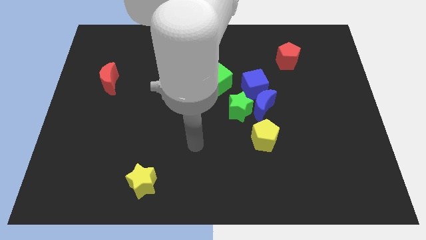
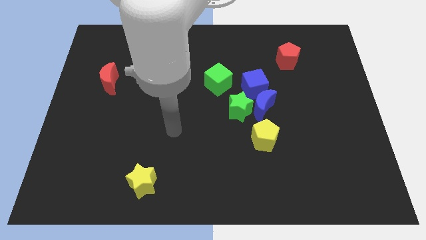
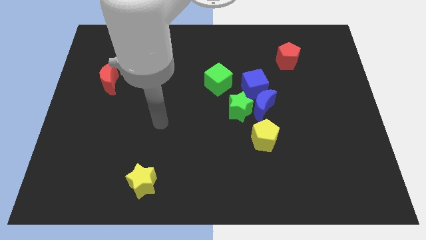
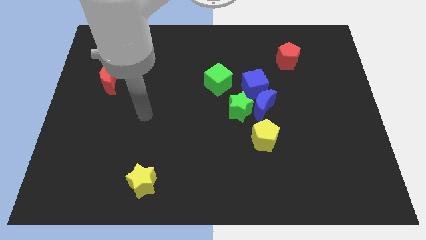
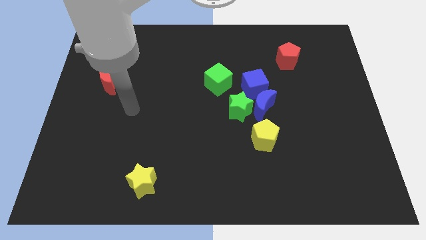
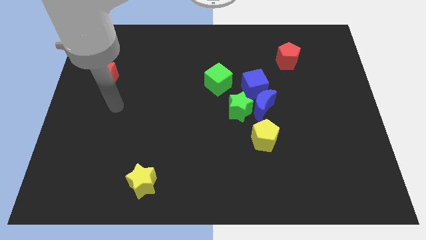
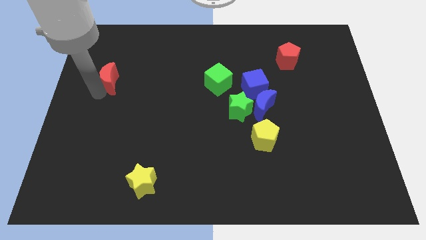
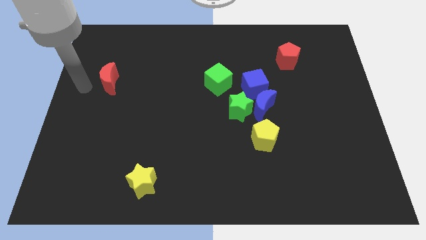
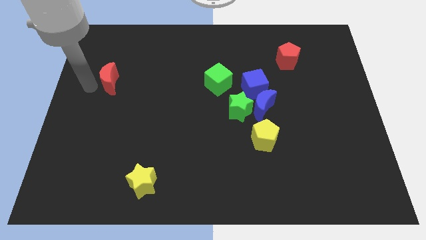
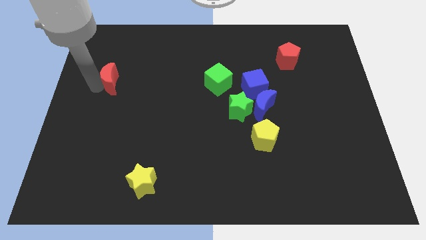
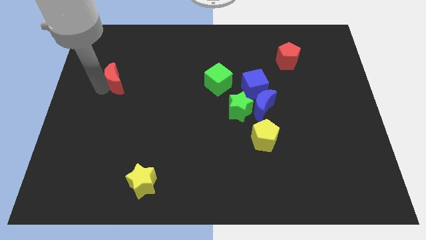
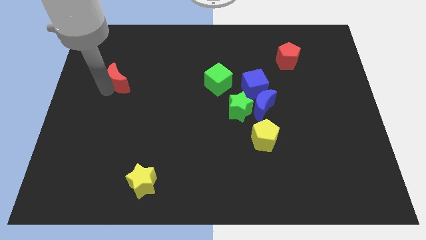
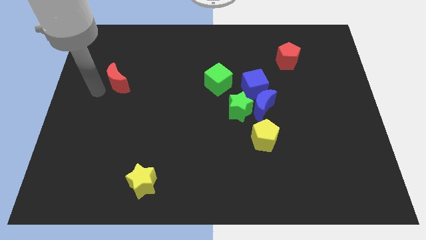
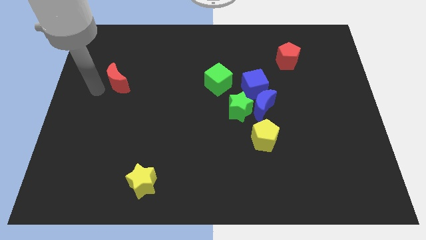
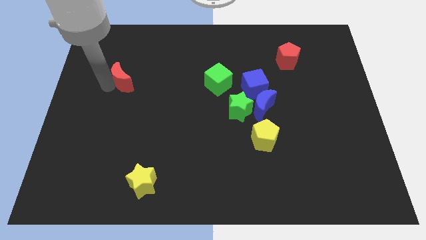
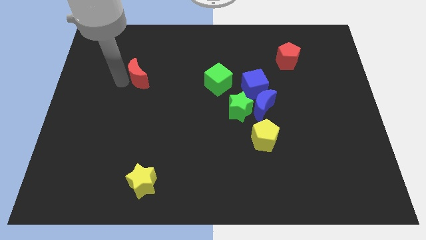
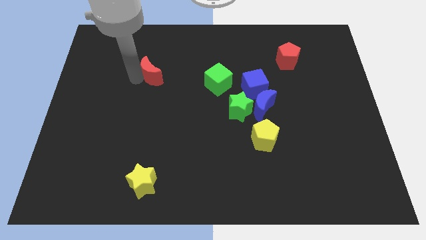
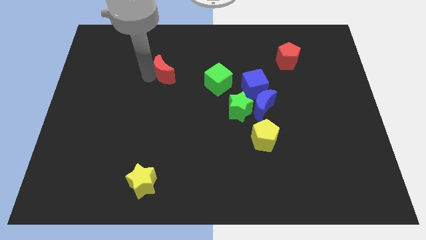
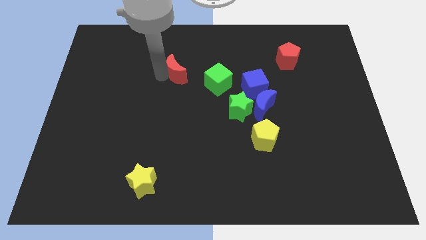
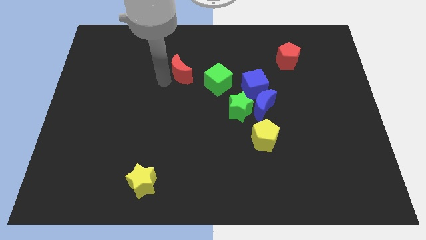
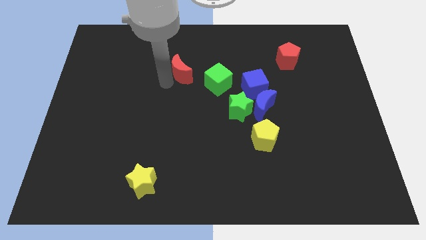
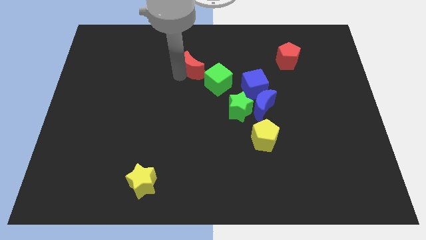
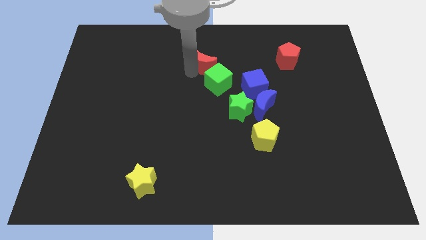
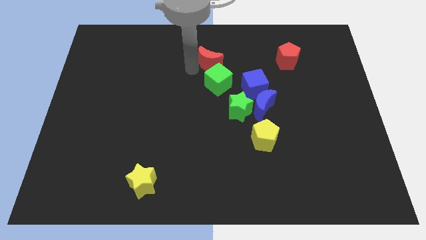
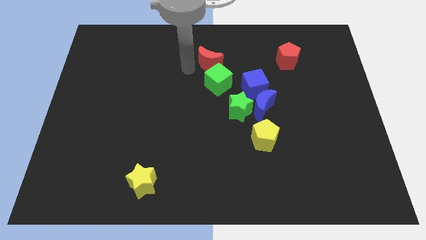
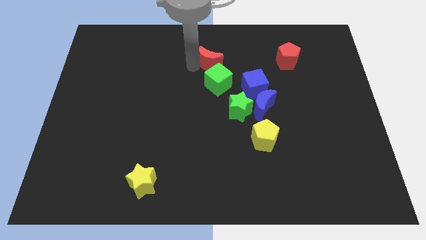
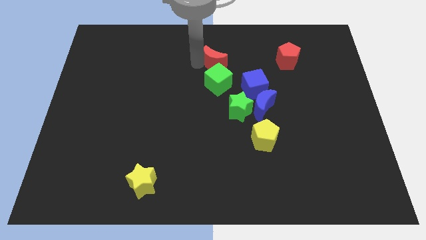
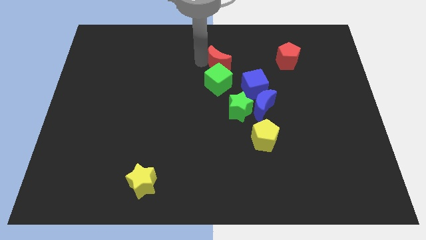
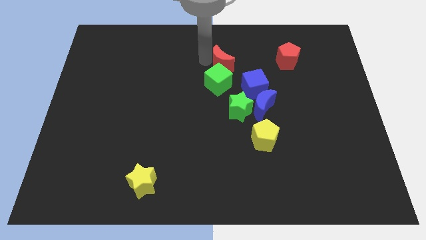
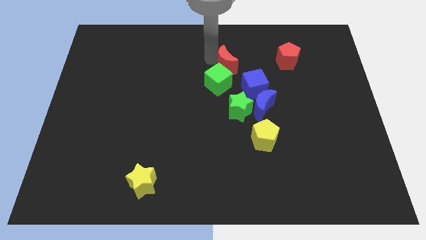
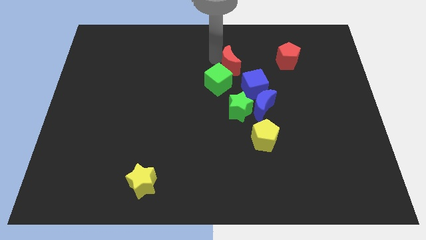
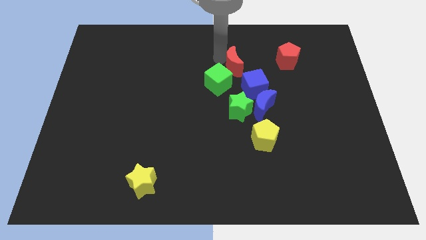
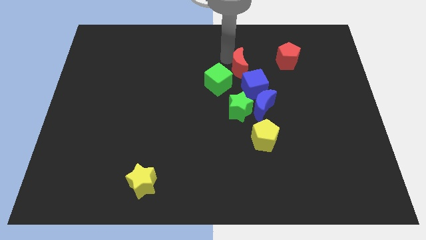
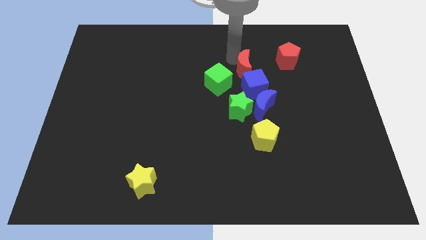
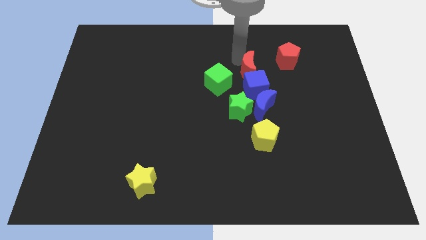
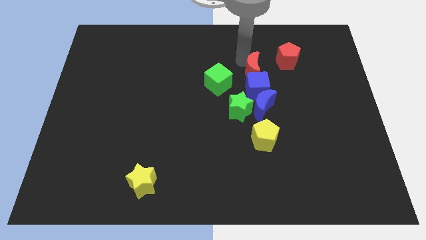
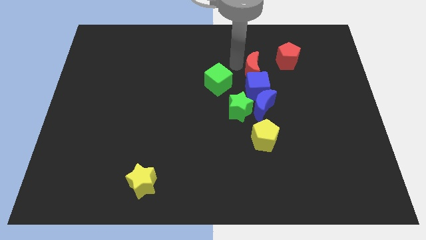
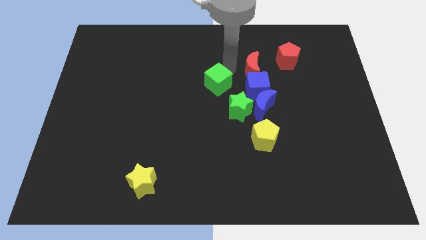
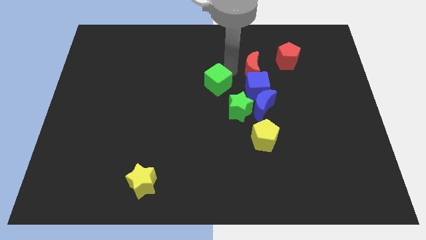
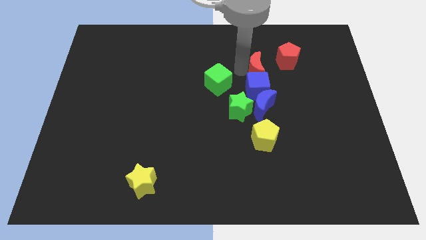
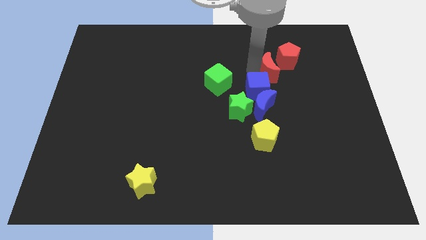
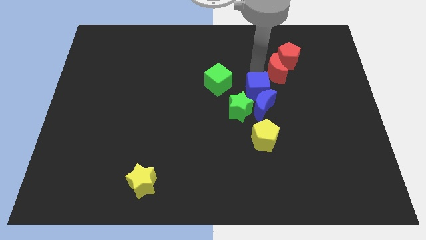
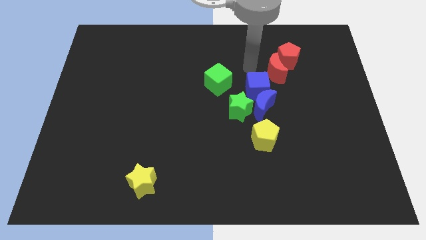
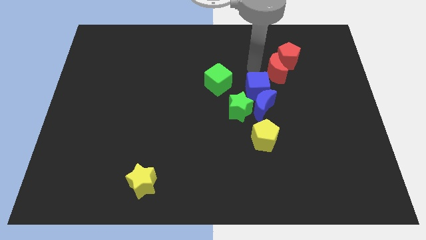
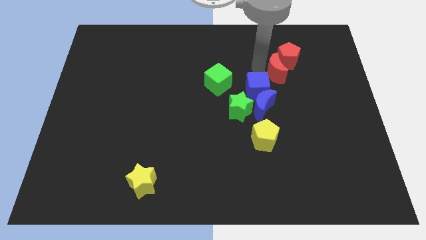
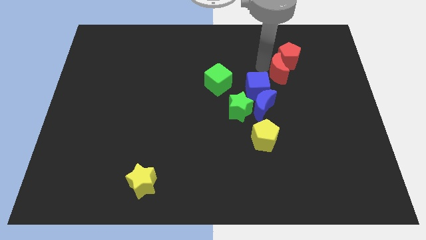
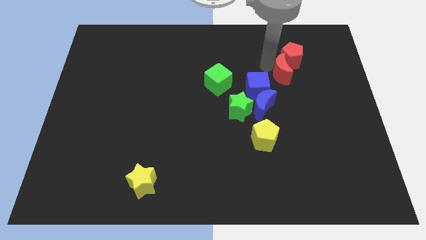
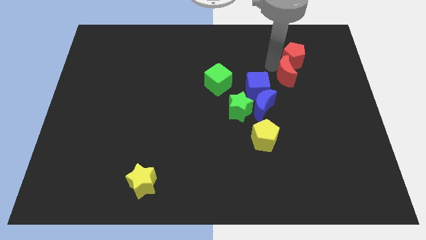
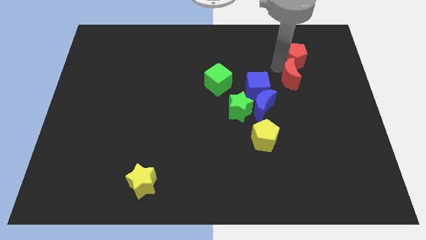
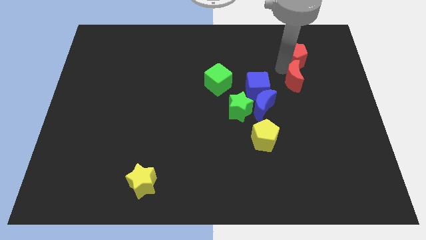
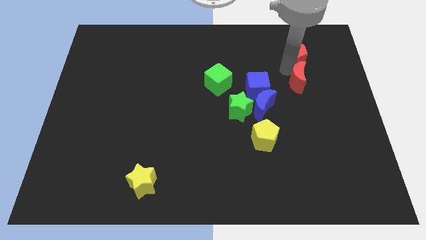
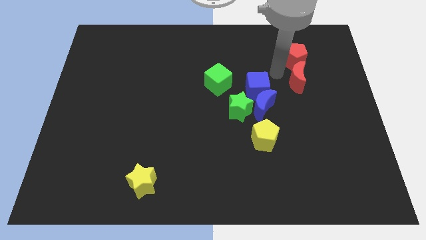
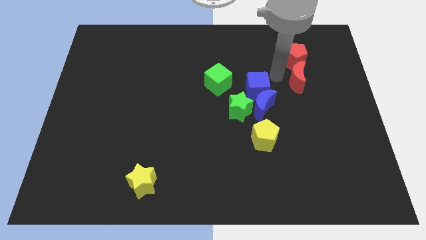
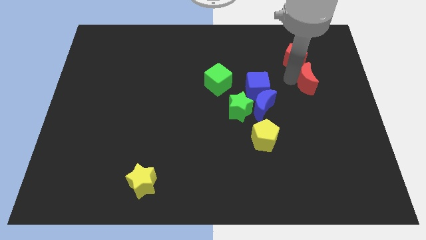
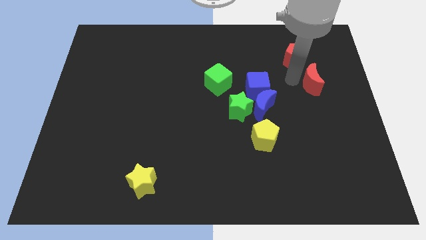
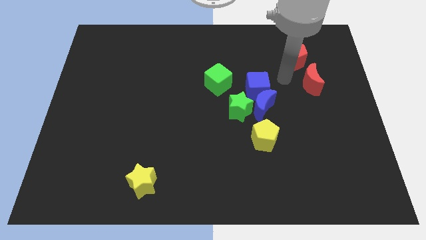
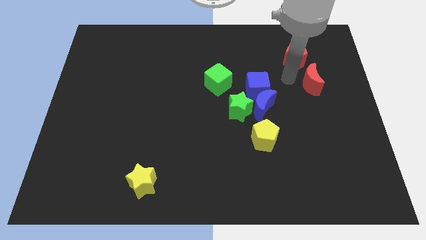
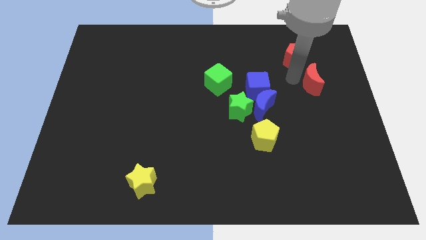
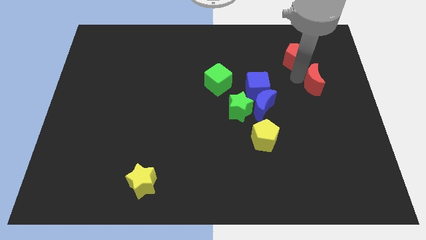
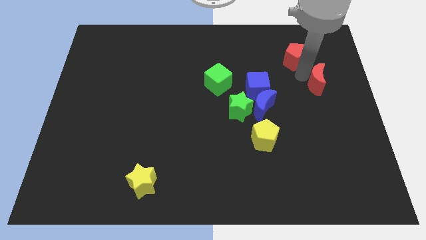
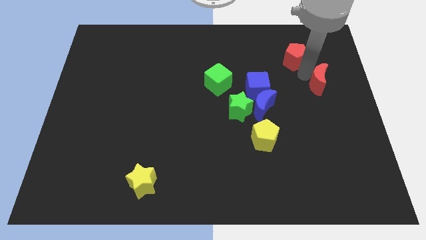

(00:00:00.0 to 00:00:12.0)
put the red moon to the right side

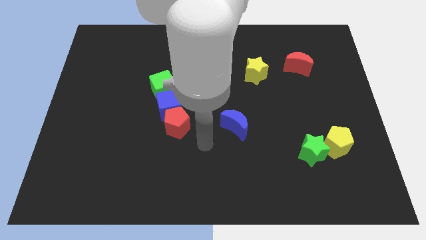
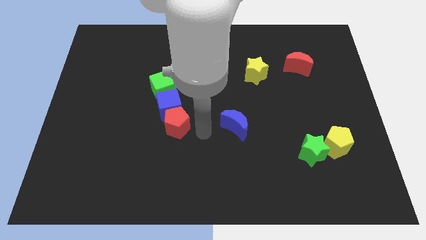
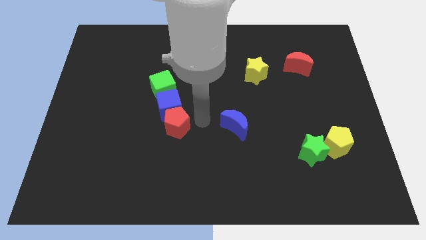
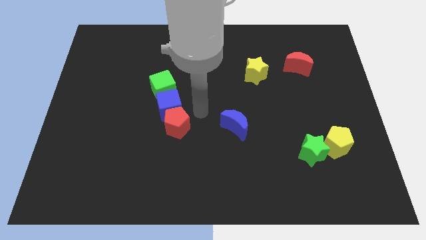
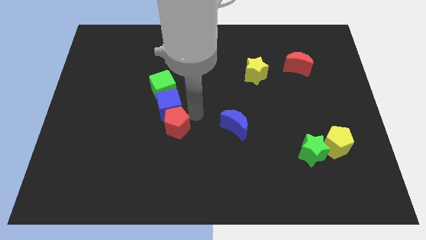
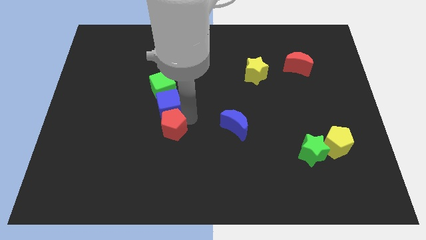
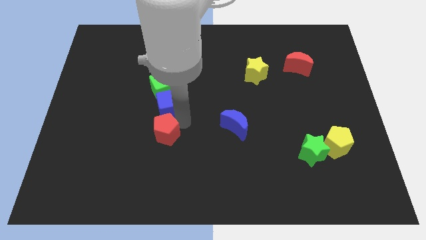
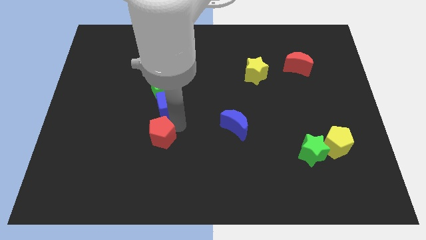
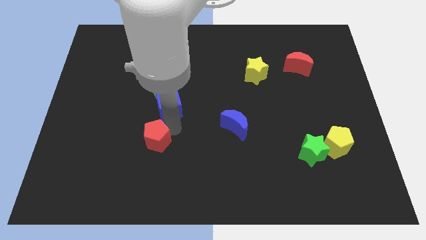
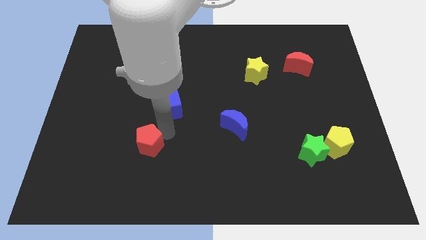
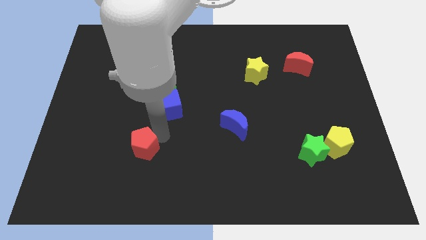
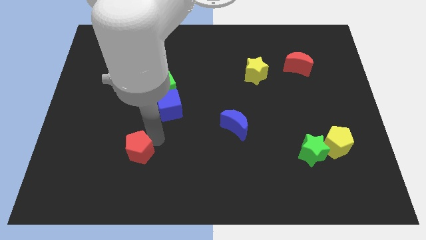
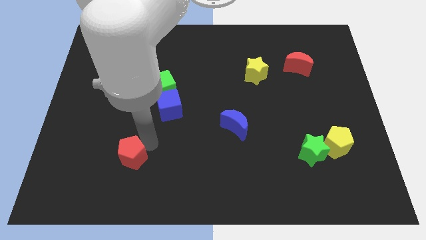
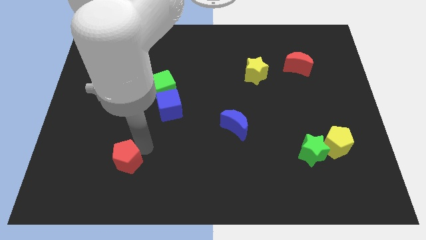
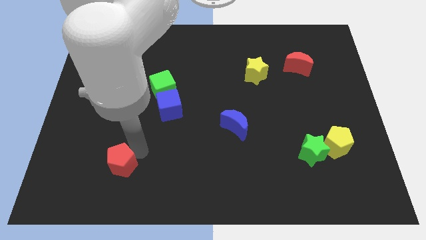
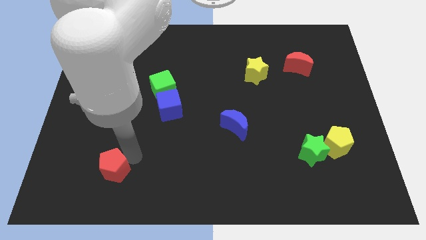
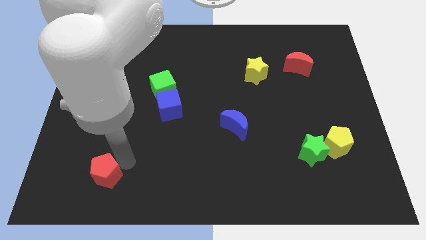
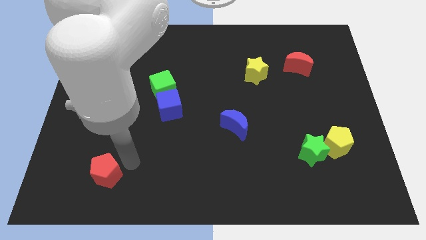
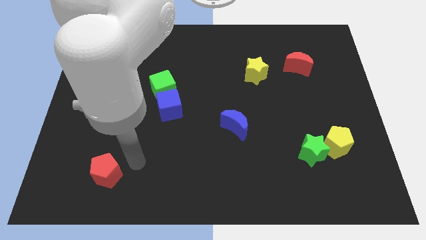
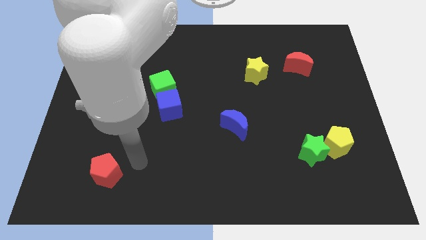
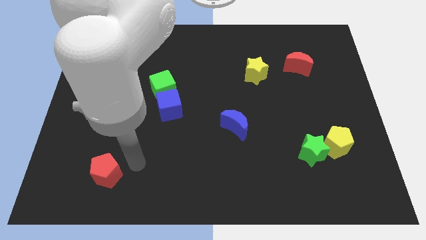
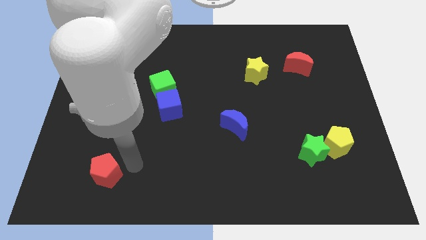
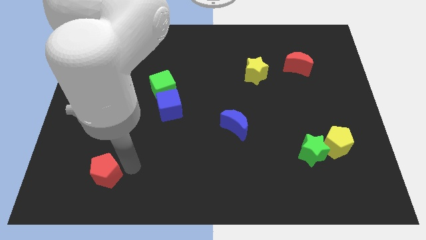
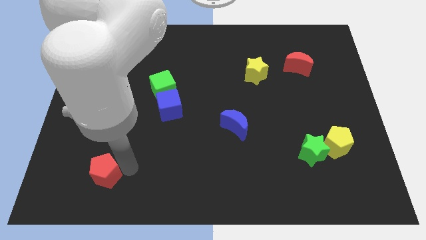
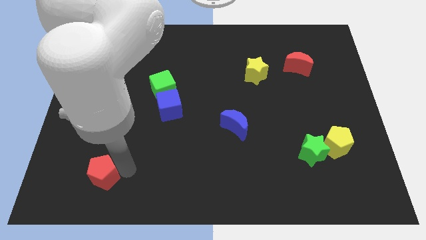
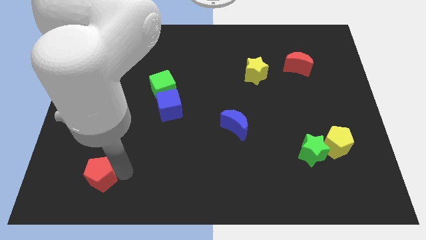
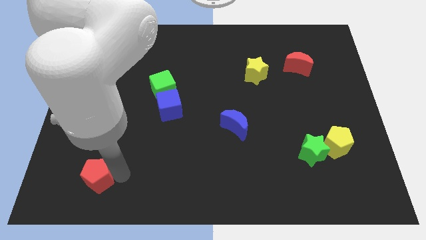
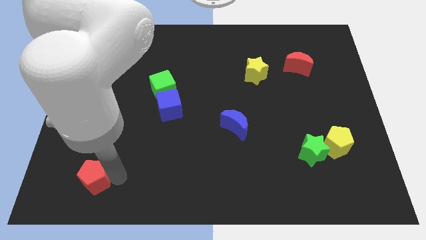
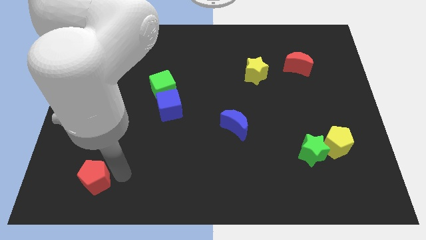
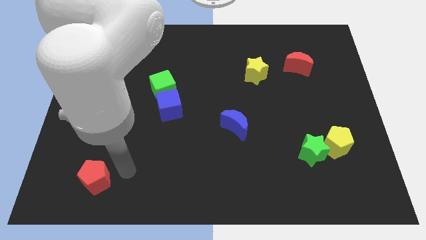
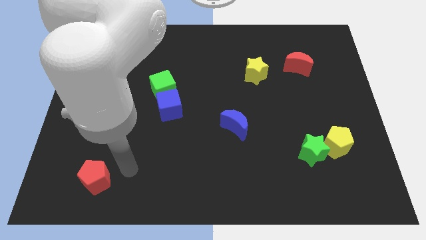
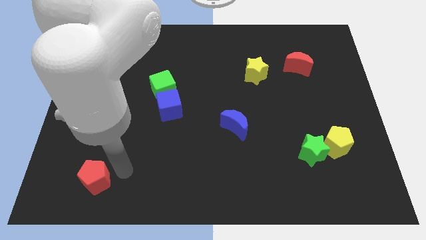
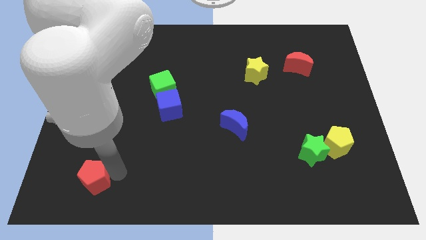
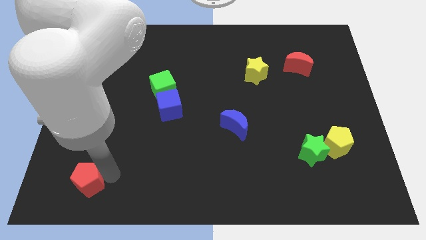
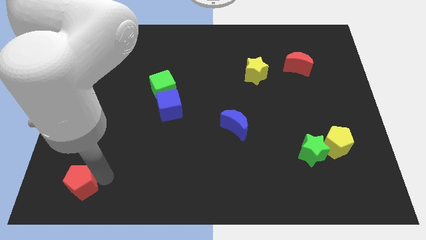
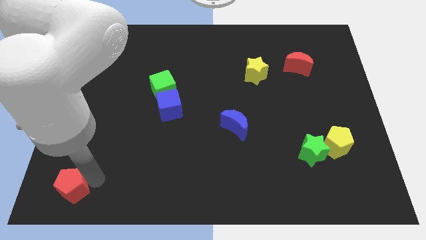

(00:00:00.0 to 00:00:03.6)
slide the red pentagon to the bottom left of the board
